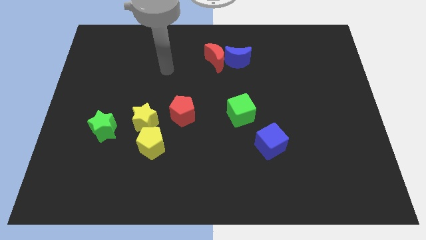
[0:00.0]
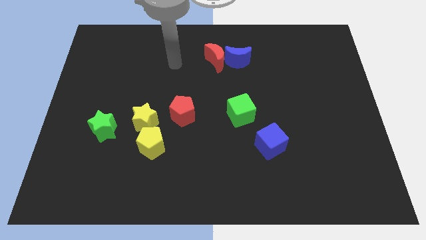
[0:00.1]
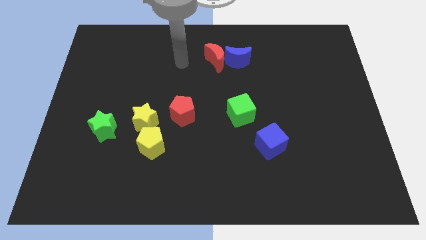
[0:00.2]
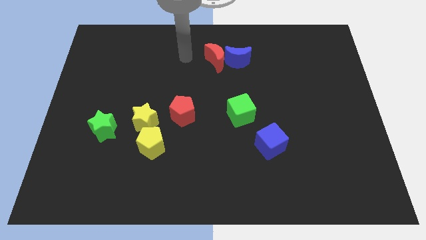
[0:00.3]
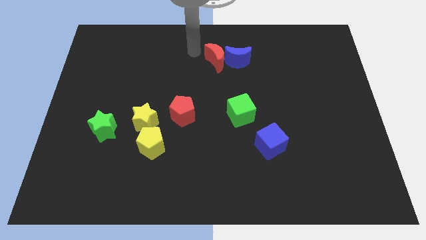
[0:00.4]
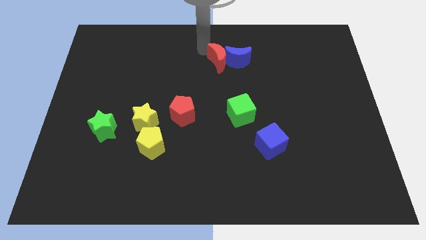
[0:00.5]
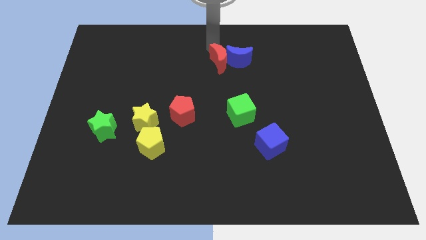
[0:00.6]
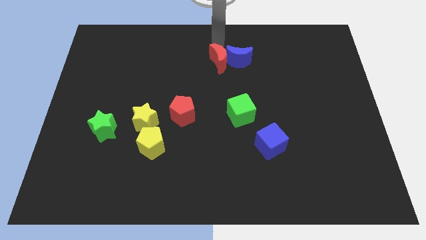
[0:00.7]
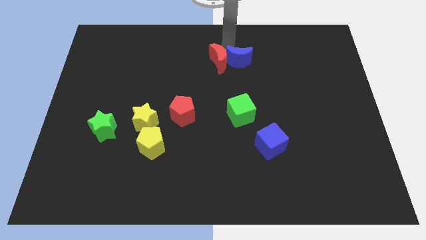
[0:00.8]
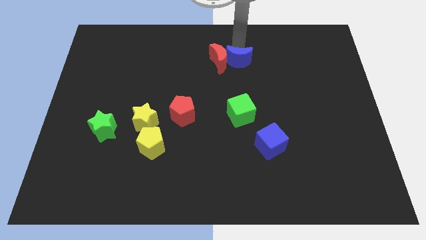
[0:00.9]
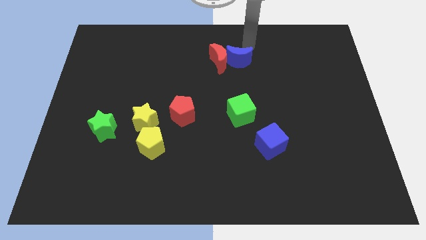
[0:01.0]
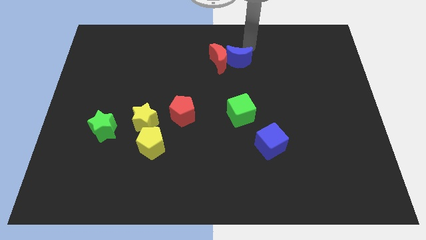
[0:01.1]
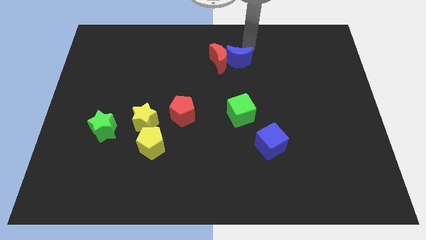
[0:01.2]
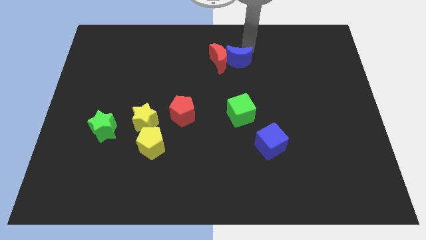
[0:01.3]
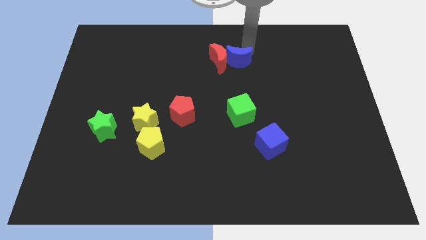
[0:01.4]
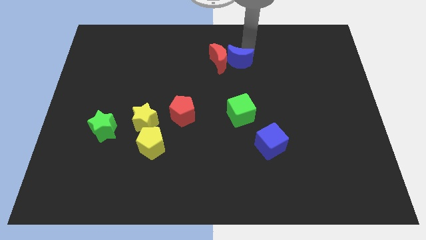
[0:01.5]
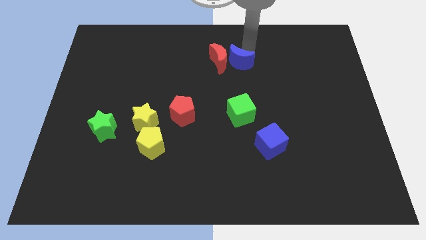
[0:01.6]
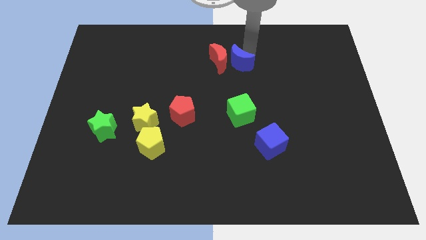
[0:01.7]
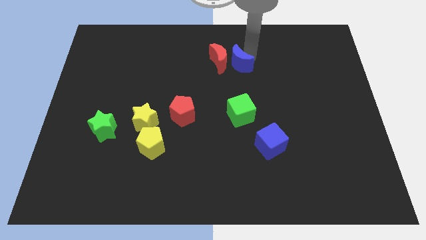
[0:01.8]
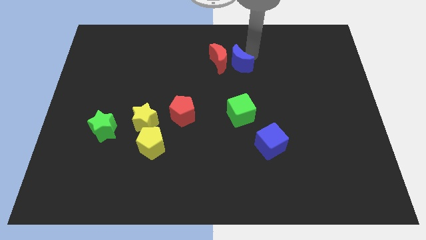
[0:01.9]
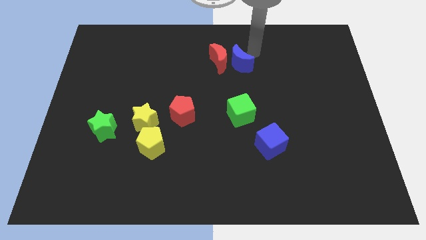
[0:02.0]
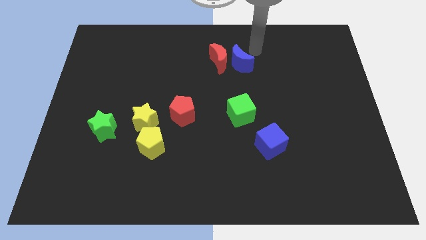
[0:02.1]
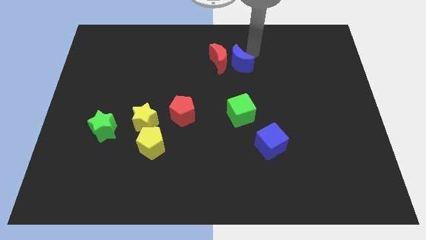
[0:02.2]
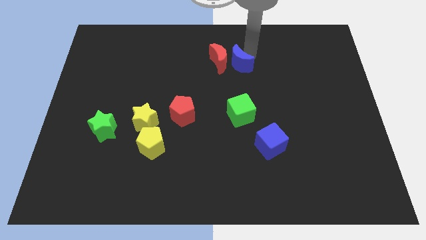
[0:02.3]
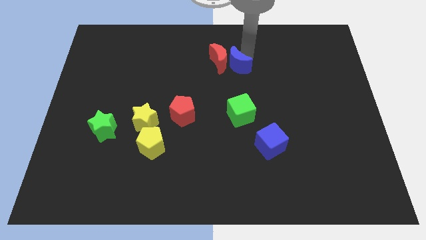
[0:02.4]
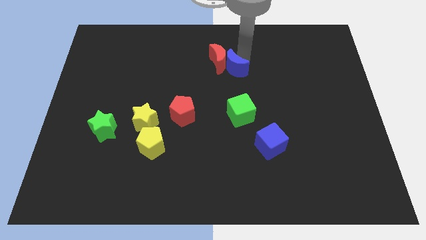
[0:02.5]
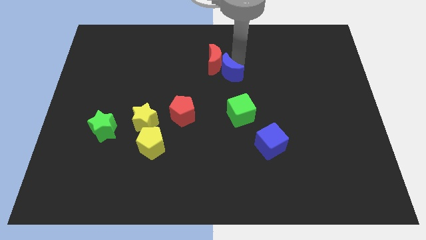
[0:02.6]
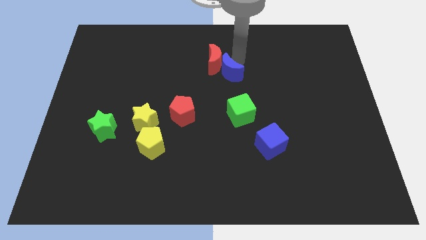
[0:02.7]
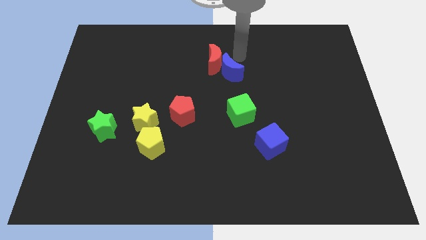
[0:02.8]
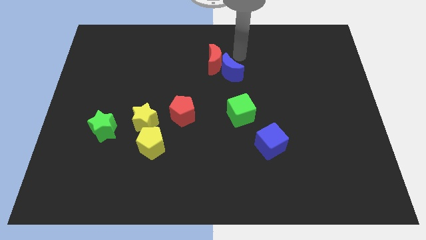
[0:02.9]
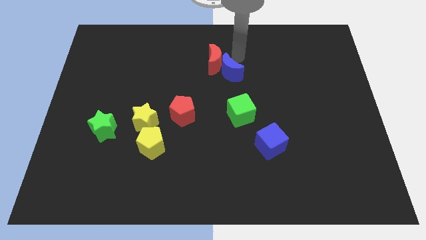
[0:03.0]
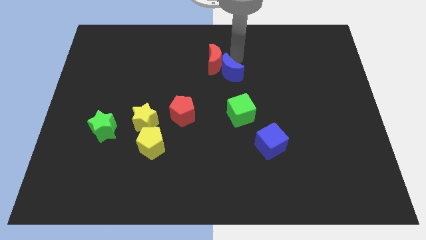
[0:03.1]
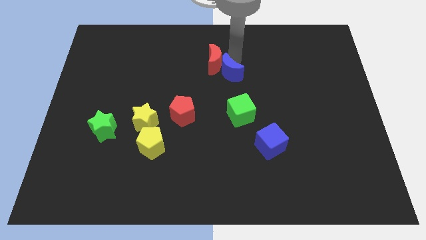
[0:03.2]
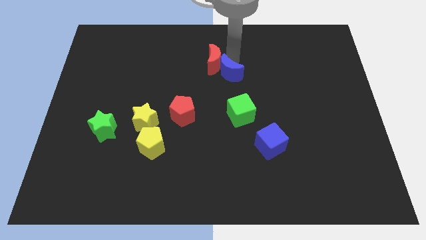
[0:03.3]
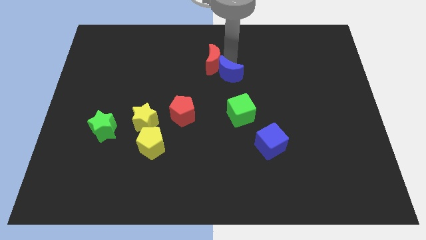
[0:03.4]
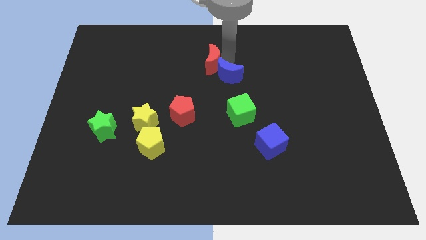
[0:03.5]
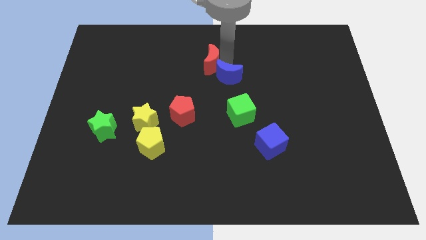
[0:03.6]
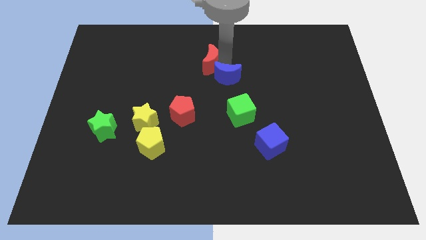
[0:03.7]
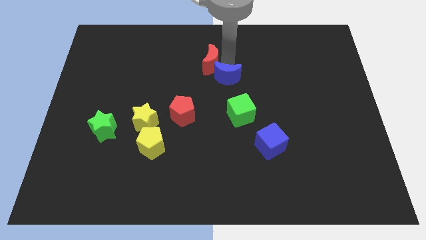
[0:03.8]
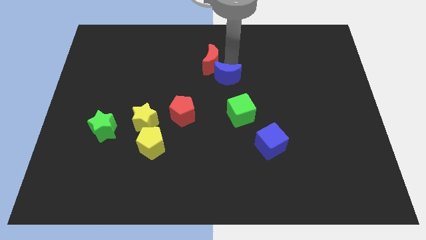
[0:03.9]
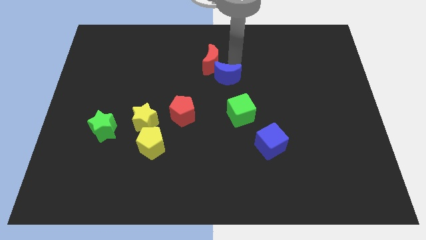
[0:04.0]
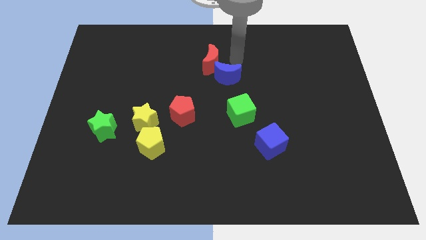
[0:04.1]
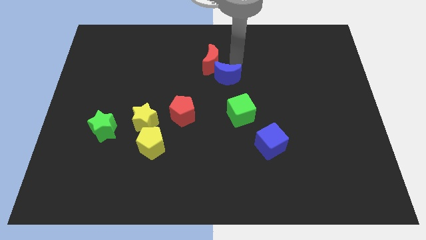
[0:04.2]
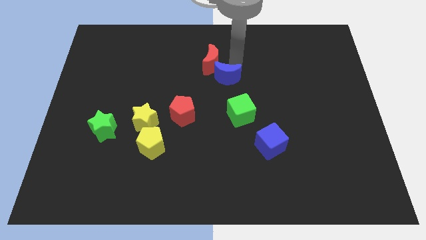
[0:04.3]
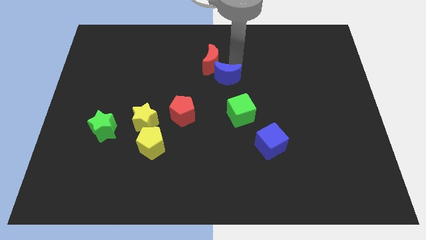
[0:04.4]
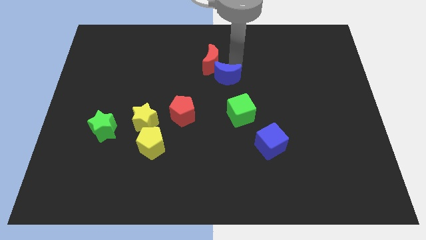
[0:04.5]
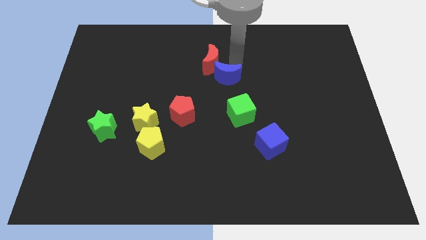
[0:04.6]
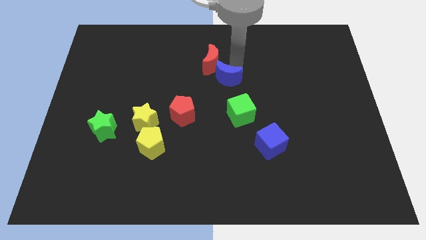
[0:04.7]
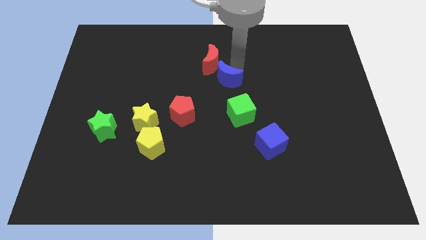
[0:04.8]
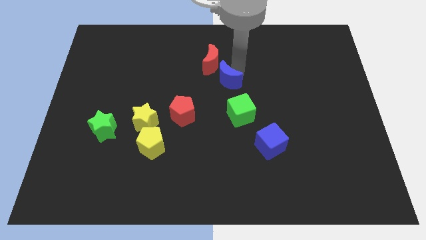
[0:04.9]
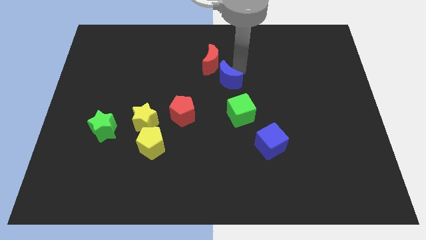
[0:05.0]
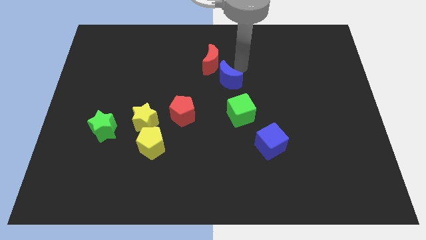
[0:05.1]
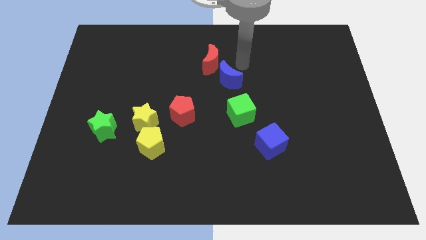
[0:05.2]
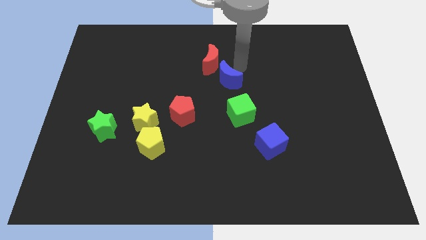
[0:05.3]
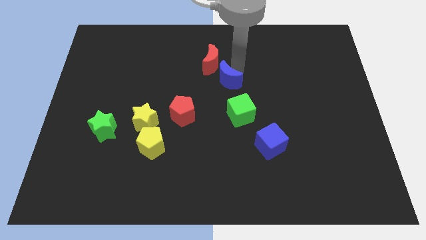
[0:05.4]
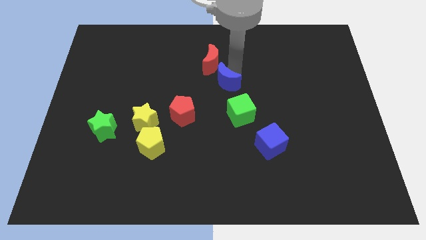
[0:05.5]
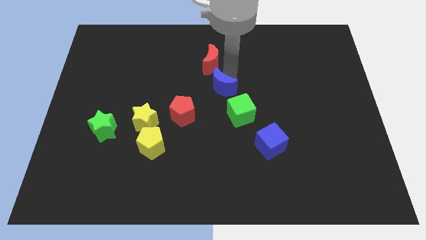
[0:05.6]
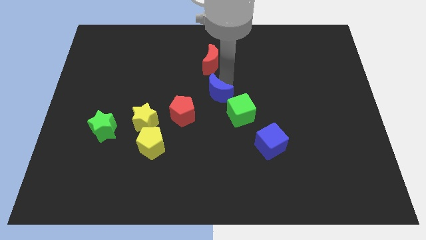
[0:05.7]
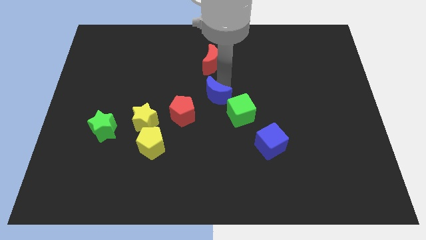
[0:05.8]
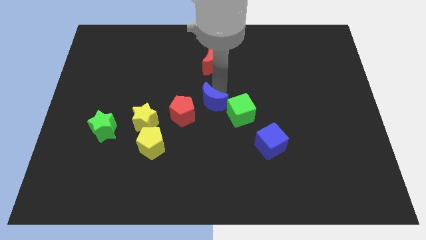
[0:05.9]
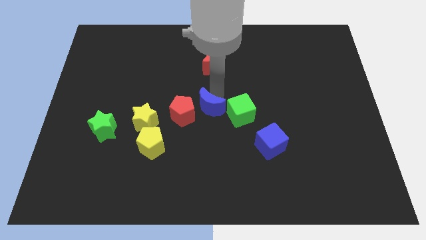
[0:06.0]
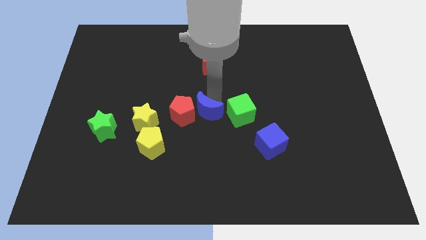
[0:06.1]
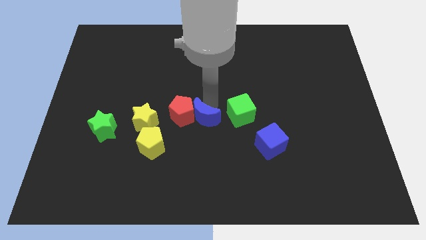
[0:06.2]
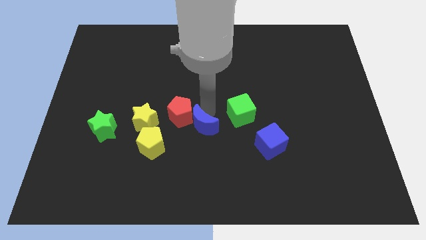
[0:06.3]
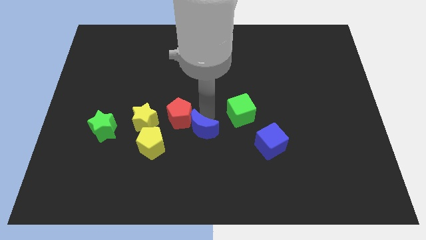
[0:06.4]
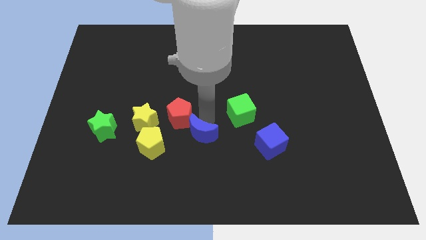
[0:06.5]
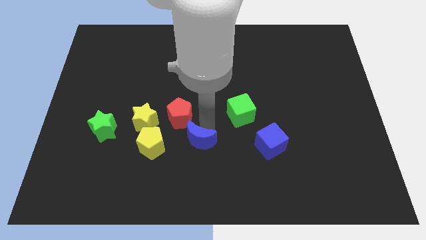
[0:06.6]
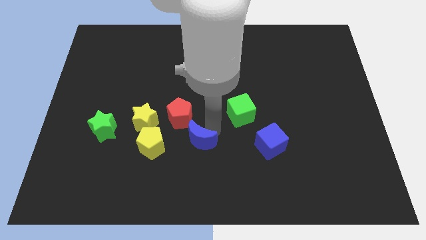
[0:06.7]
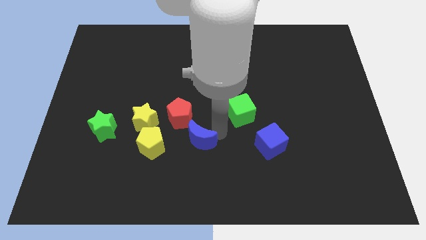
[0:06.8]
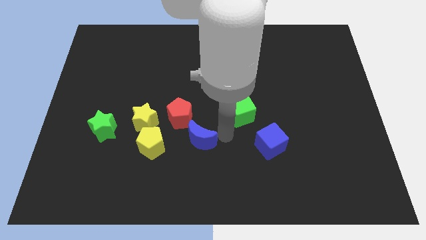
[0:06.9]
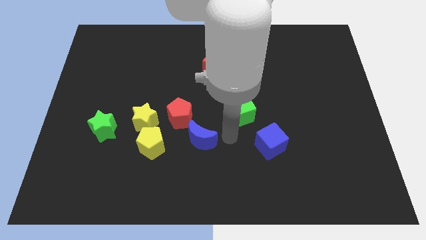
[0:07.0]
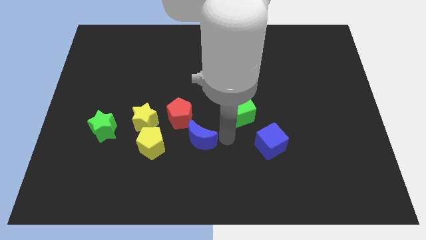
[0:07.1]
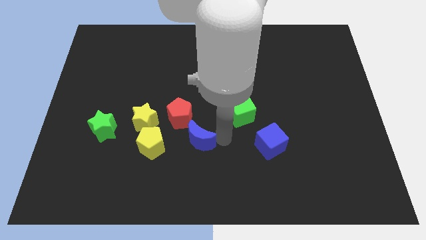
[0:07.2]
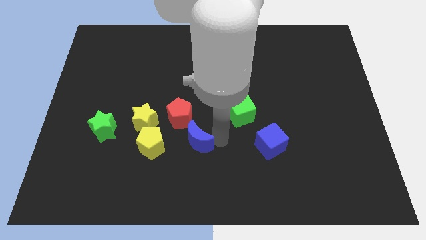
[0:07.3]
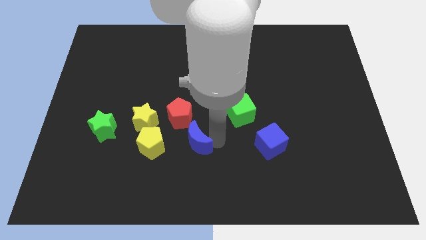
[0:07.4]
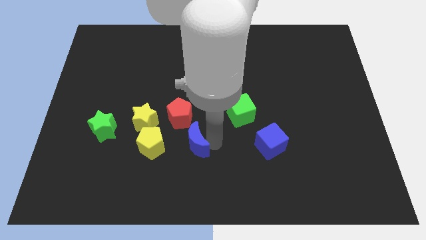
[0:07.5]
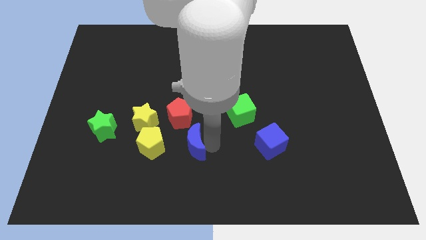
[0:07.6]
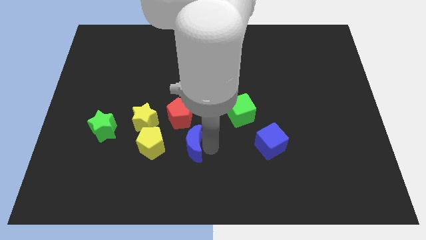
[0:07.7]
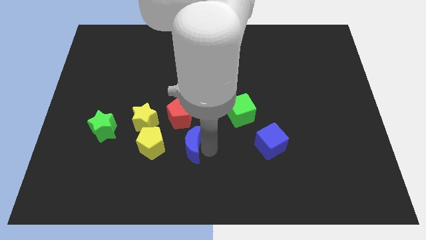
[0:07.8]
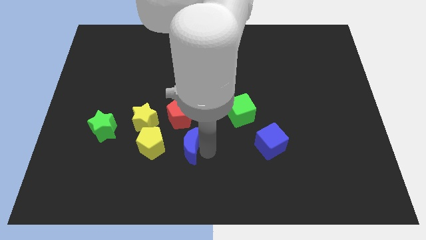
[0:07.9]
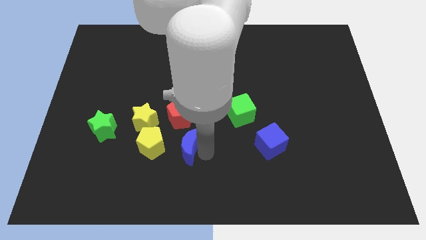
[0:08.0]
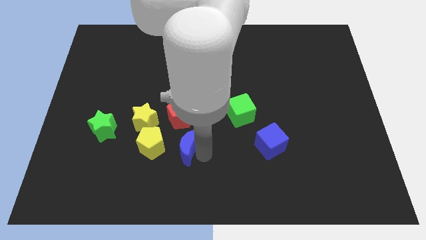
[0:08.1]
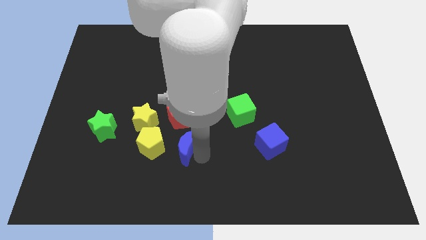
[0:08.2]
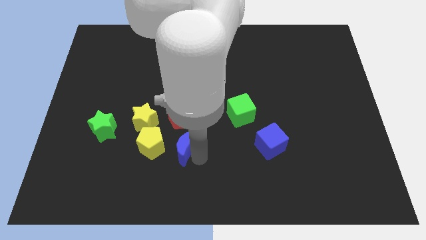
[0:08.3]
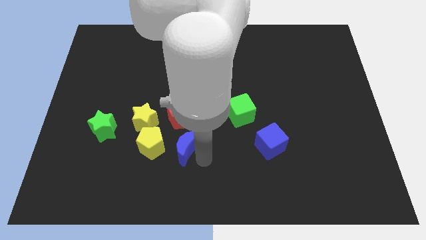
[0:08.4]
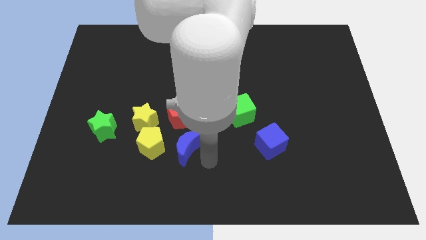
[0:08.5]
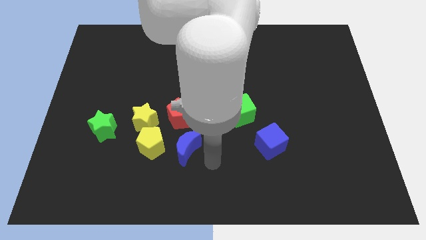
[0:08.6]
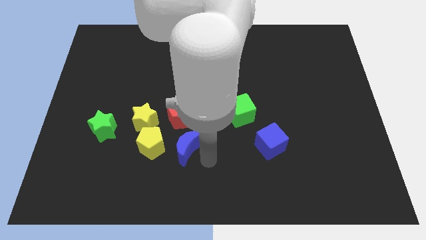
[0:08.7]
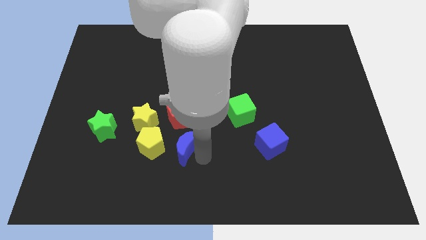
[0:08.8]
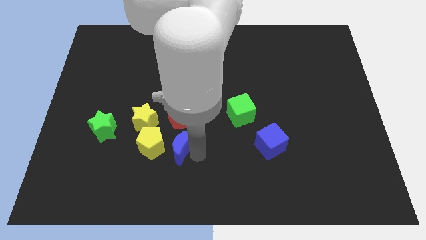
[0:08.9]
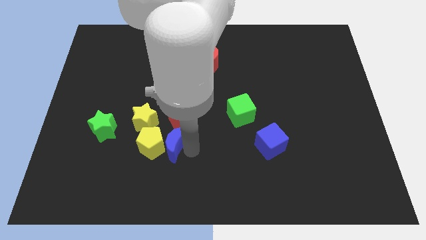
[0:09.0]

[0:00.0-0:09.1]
push the blue moon towards the yellow pentagon
